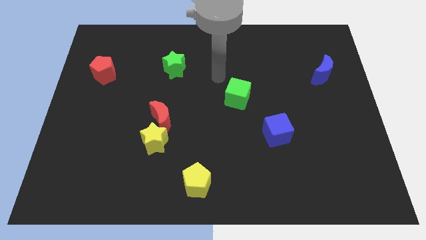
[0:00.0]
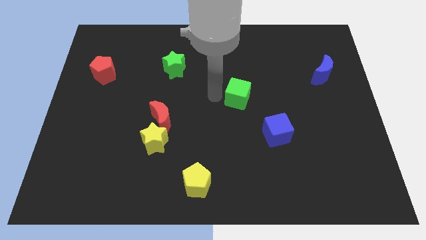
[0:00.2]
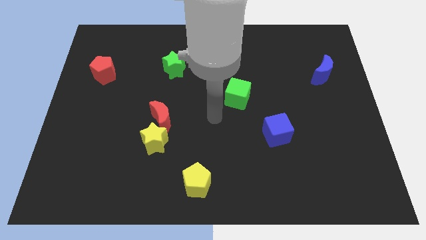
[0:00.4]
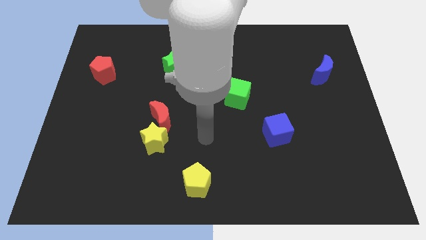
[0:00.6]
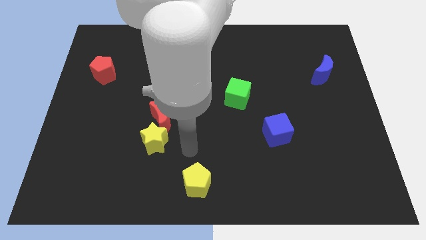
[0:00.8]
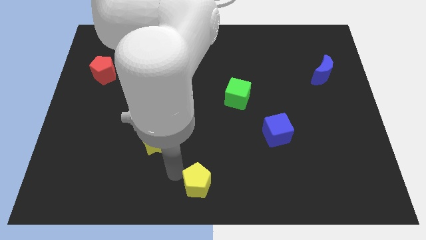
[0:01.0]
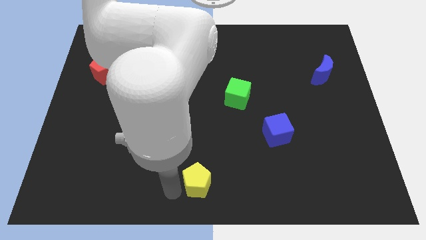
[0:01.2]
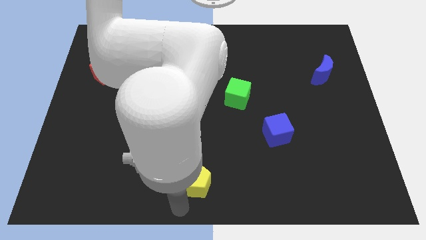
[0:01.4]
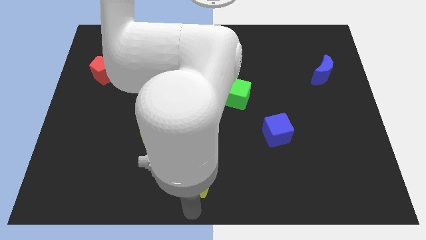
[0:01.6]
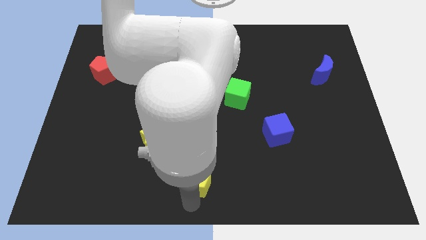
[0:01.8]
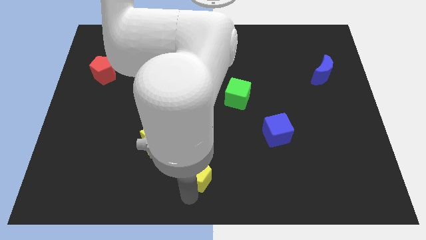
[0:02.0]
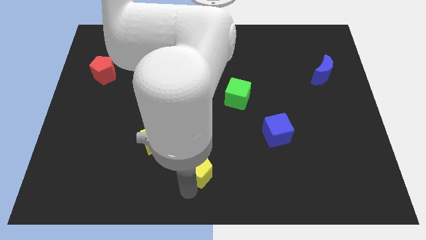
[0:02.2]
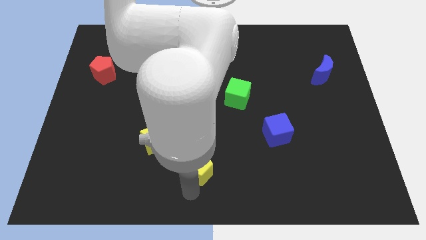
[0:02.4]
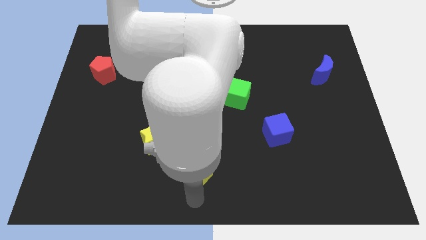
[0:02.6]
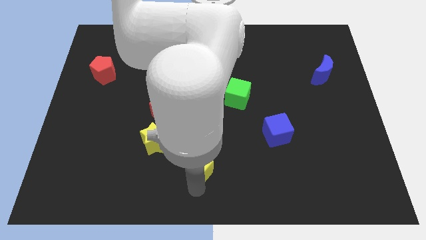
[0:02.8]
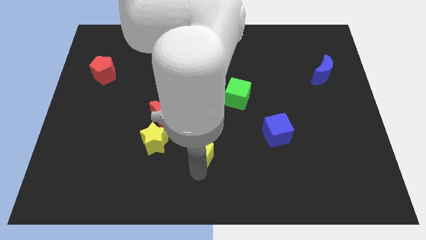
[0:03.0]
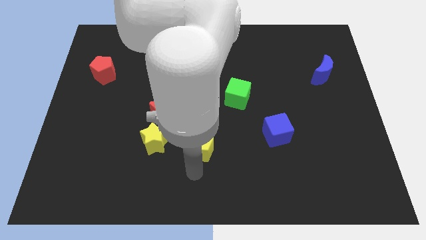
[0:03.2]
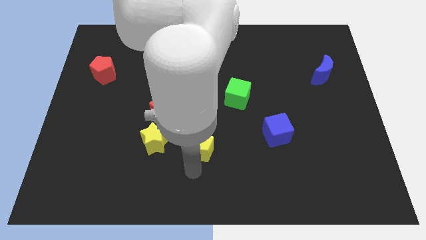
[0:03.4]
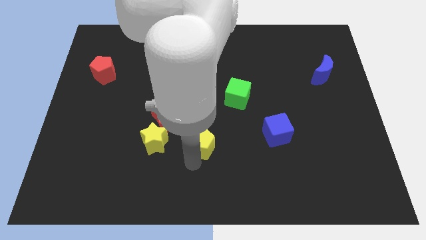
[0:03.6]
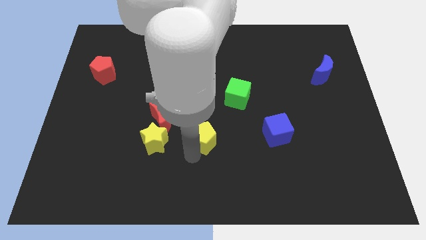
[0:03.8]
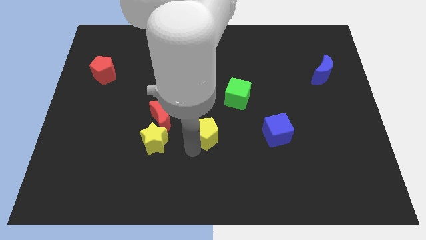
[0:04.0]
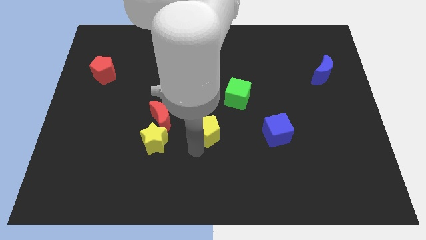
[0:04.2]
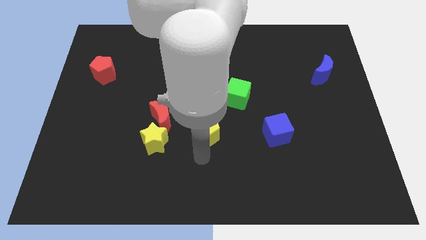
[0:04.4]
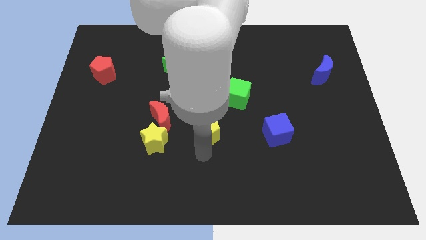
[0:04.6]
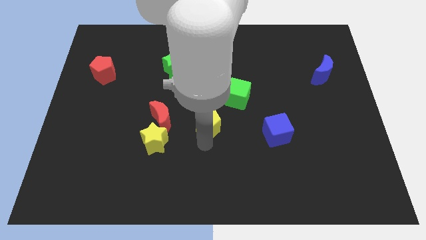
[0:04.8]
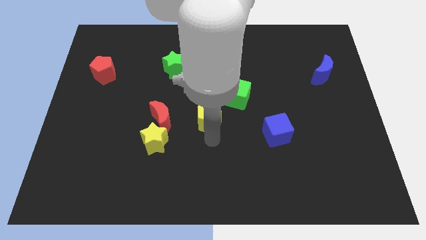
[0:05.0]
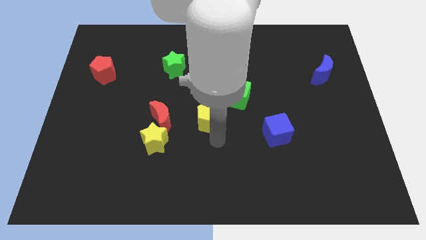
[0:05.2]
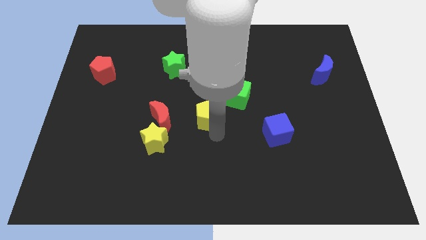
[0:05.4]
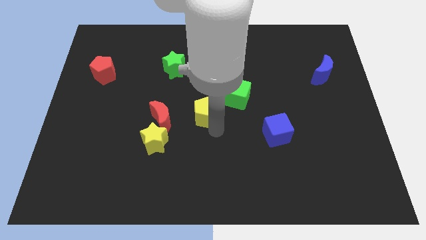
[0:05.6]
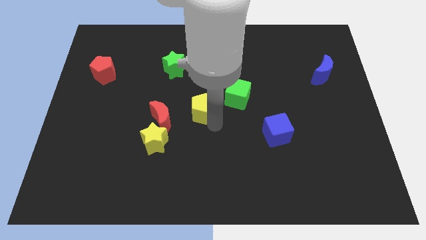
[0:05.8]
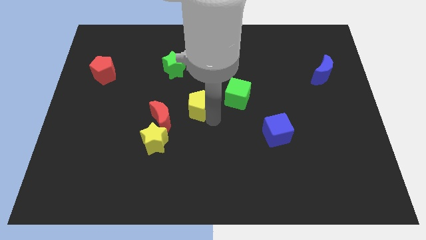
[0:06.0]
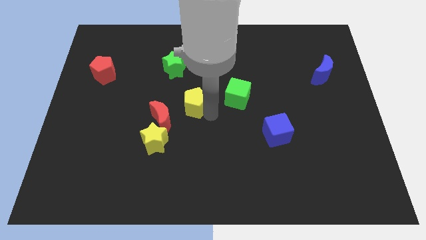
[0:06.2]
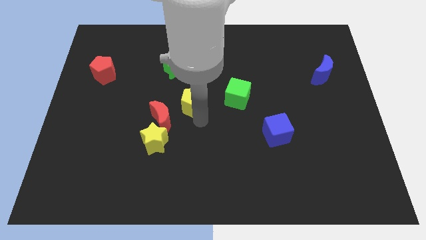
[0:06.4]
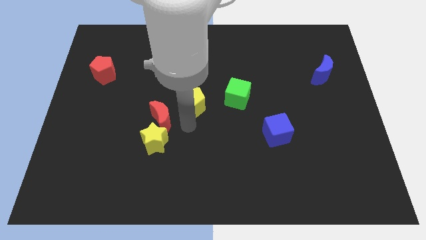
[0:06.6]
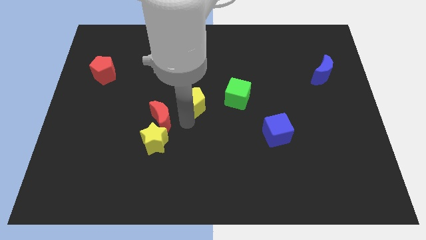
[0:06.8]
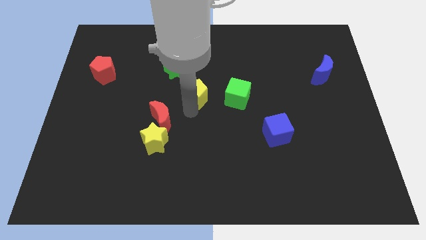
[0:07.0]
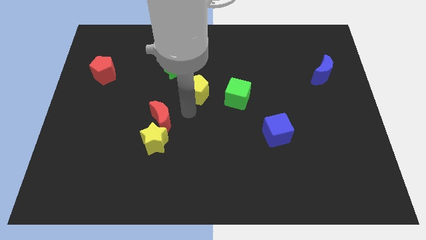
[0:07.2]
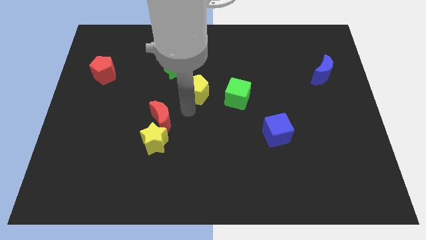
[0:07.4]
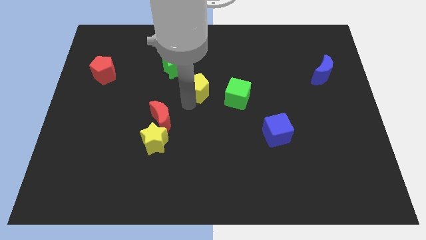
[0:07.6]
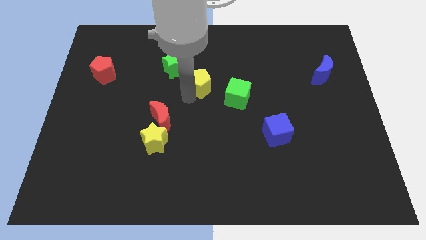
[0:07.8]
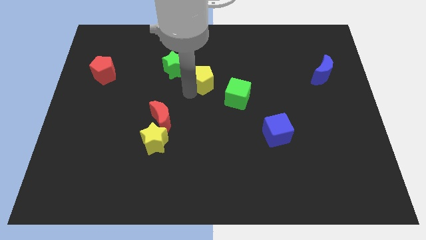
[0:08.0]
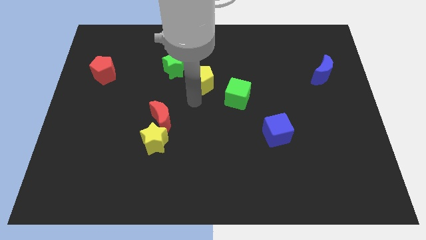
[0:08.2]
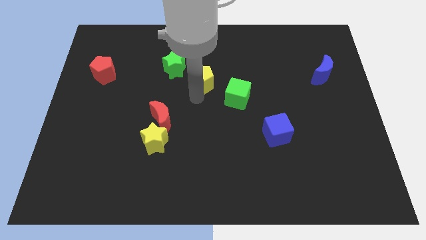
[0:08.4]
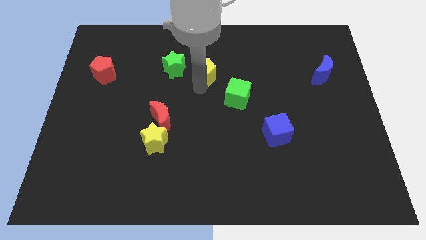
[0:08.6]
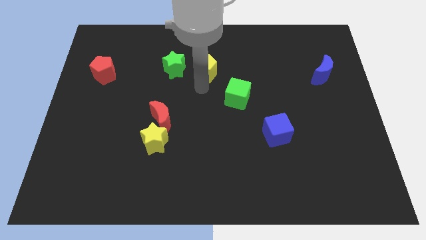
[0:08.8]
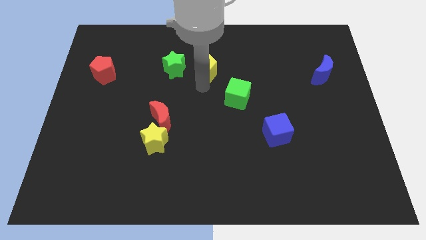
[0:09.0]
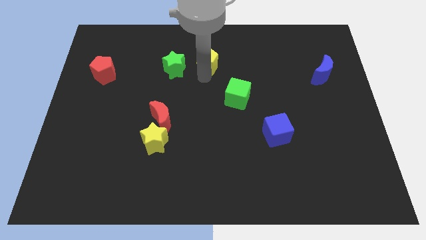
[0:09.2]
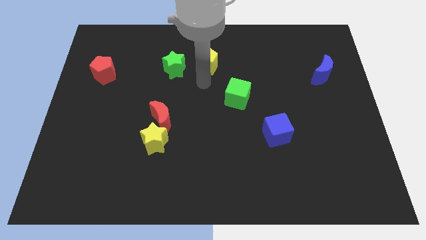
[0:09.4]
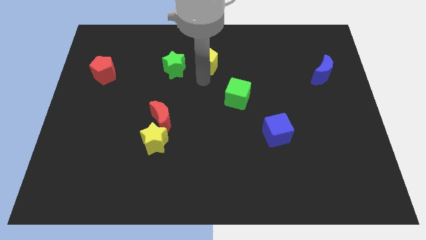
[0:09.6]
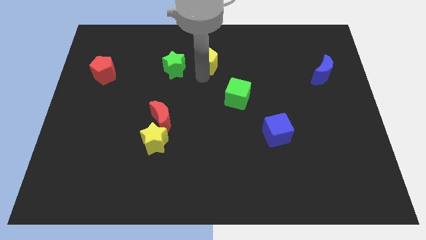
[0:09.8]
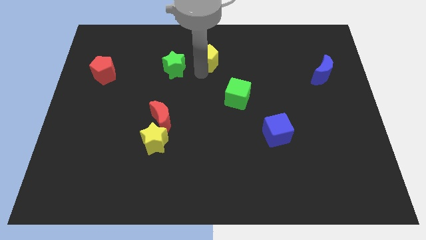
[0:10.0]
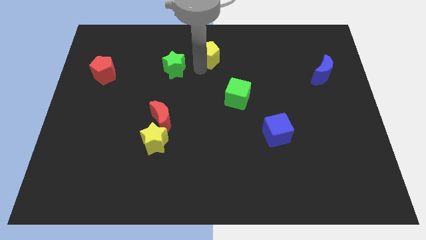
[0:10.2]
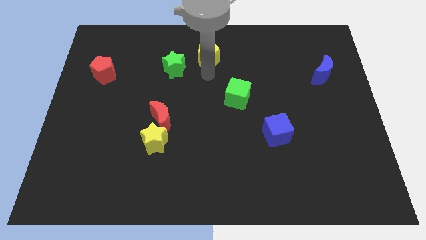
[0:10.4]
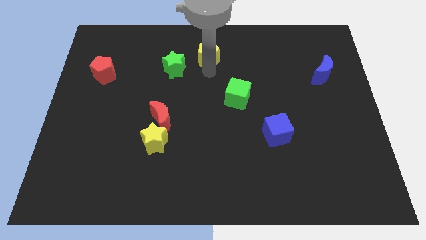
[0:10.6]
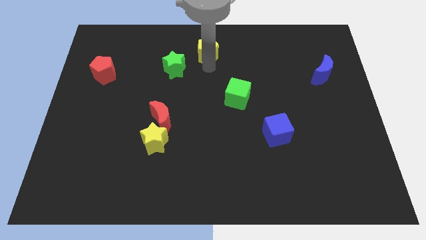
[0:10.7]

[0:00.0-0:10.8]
slide the yellow pentagon to the towards your base
